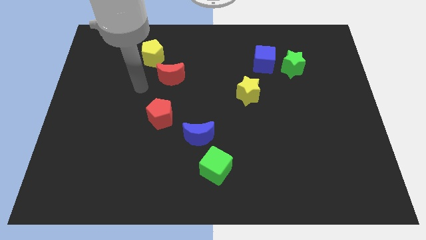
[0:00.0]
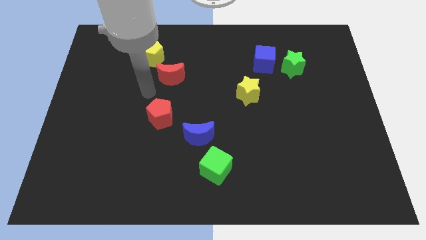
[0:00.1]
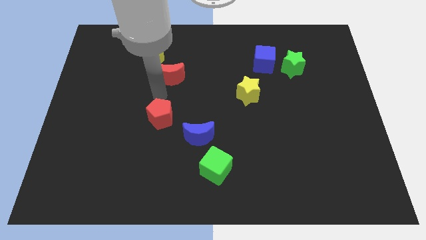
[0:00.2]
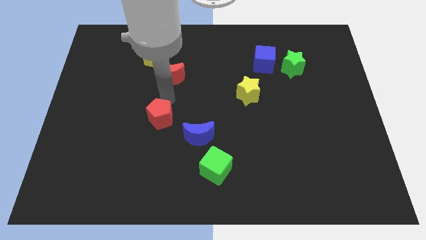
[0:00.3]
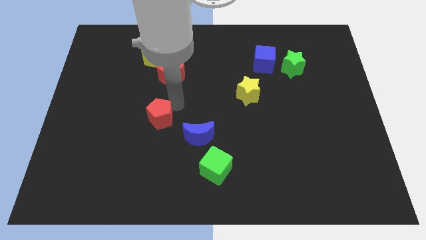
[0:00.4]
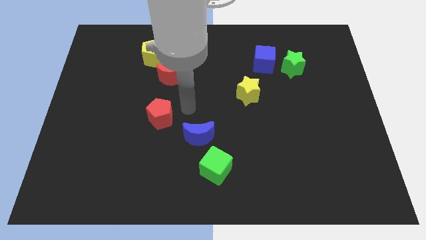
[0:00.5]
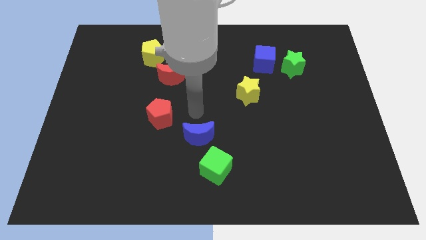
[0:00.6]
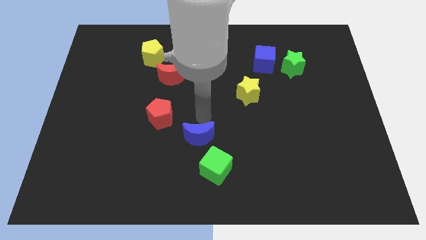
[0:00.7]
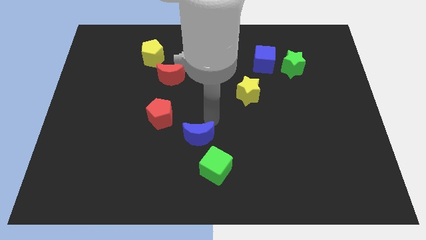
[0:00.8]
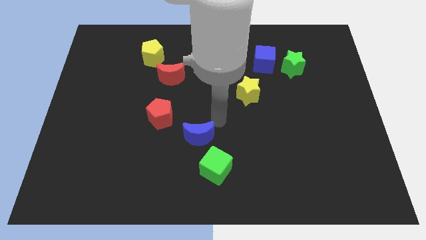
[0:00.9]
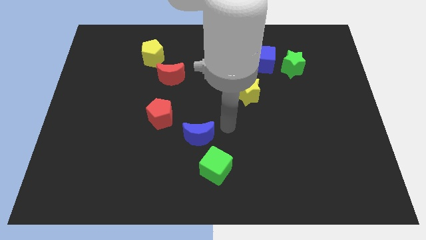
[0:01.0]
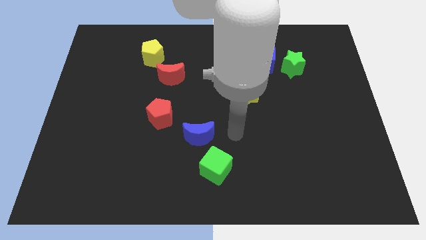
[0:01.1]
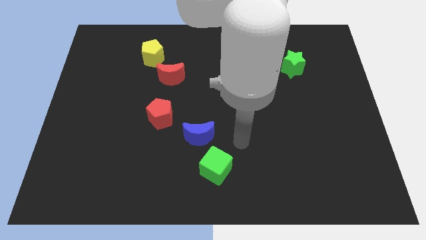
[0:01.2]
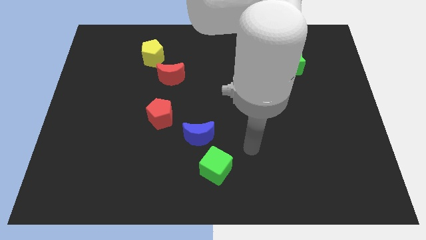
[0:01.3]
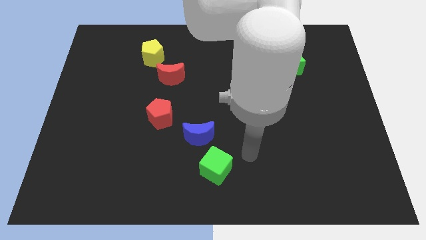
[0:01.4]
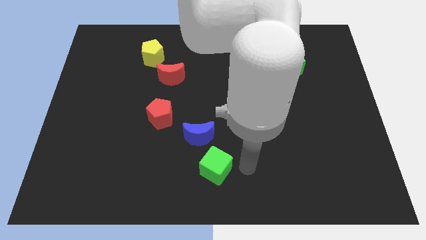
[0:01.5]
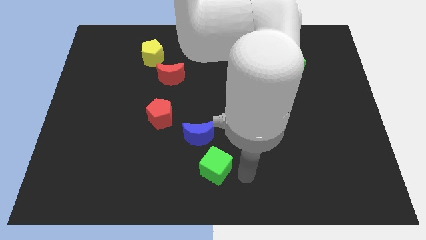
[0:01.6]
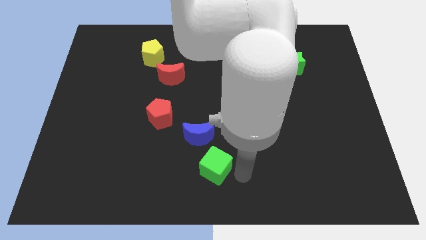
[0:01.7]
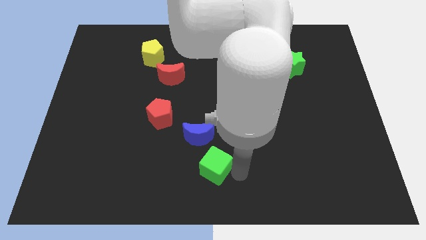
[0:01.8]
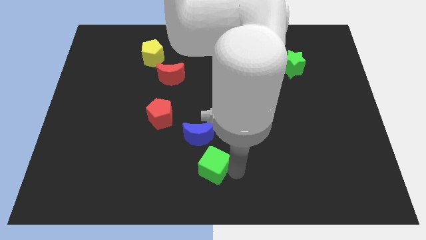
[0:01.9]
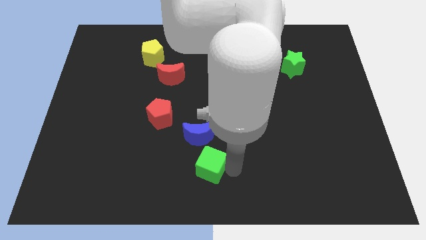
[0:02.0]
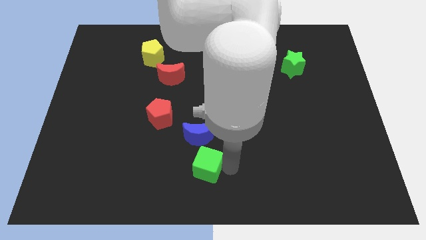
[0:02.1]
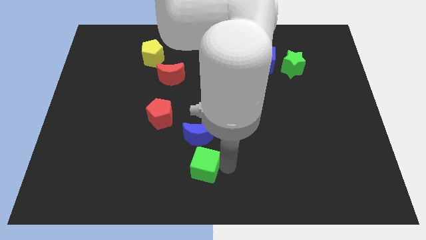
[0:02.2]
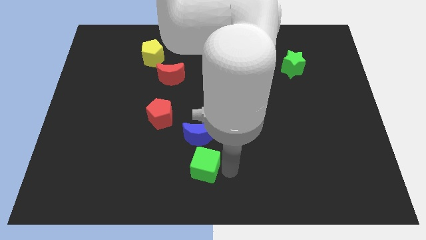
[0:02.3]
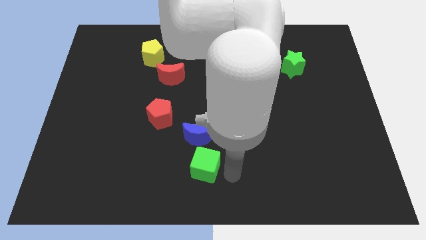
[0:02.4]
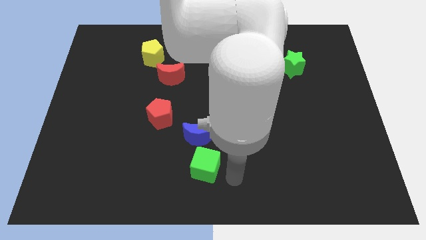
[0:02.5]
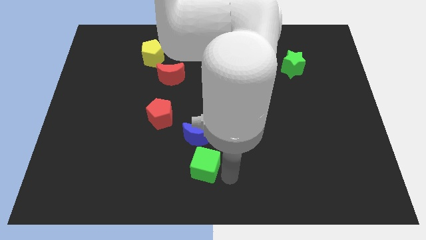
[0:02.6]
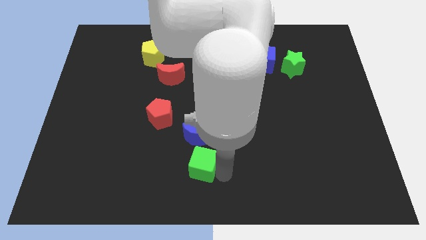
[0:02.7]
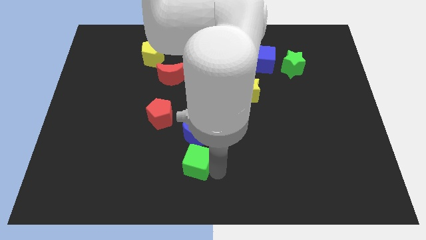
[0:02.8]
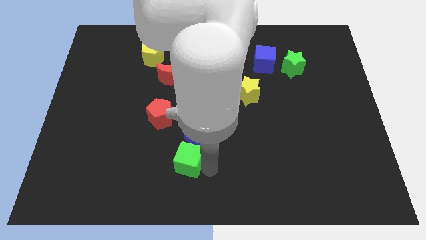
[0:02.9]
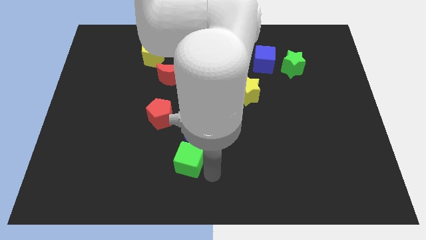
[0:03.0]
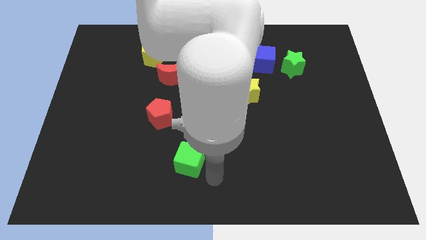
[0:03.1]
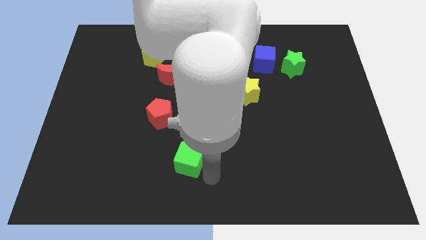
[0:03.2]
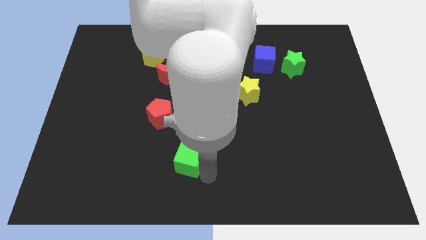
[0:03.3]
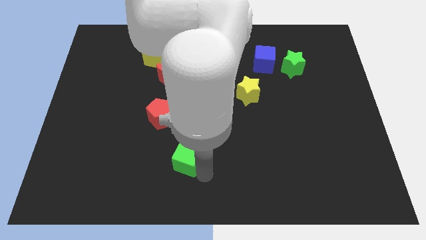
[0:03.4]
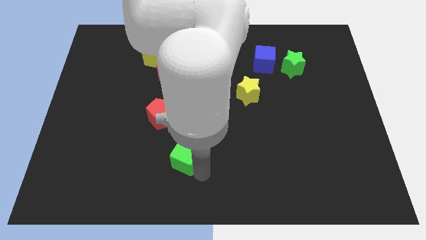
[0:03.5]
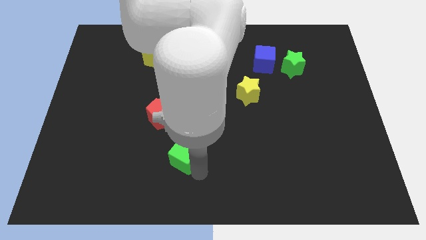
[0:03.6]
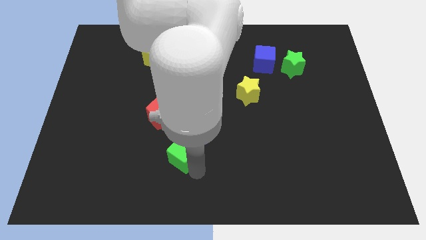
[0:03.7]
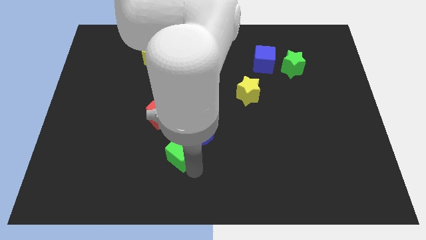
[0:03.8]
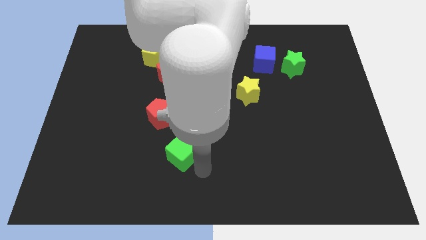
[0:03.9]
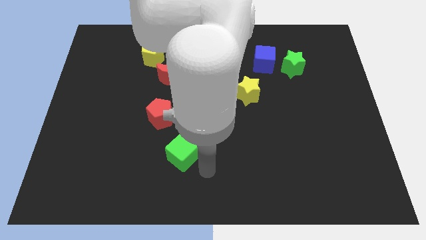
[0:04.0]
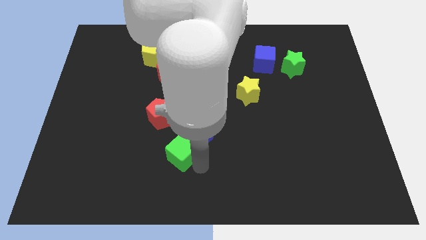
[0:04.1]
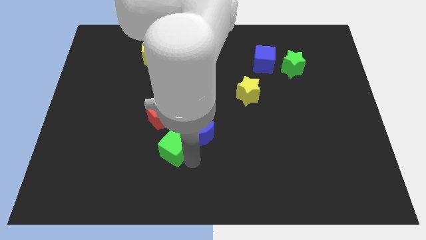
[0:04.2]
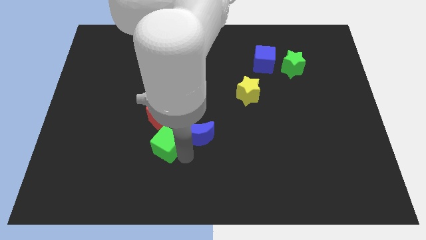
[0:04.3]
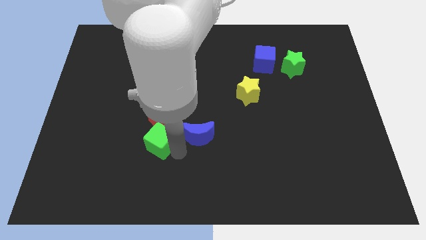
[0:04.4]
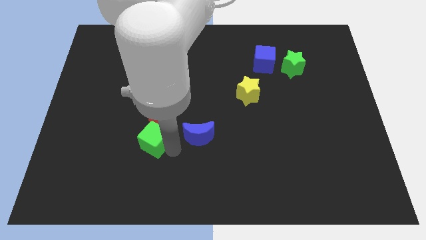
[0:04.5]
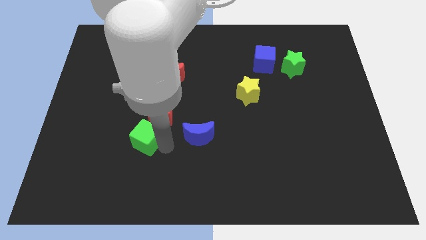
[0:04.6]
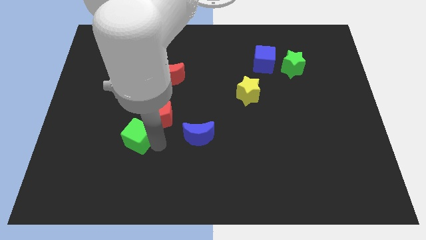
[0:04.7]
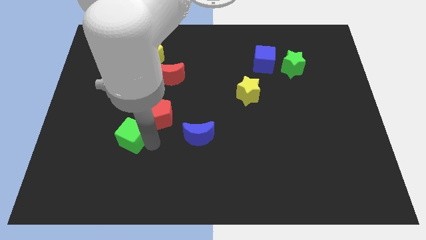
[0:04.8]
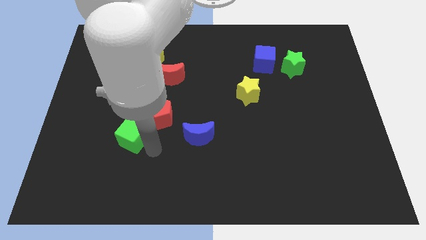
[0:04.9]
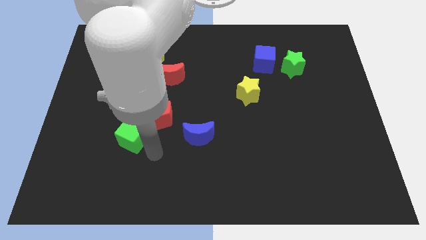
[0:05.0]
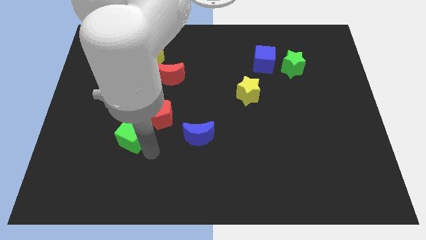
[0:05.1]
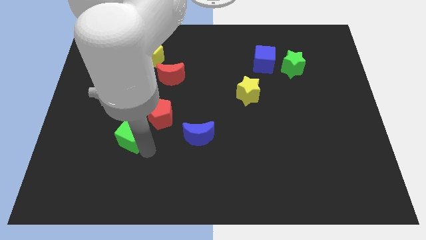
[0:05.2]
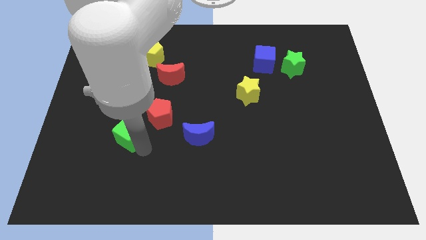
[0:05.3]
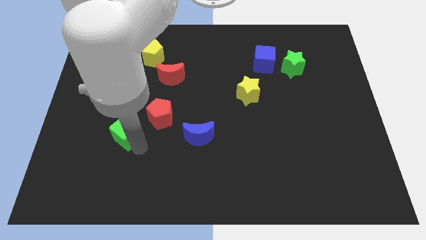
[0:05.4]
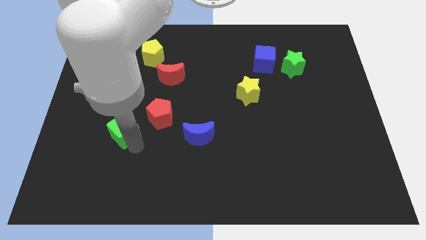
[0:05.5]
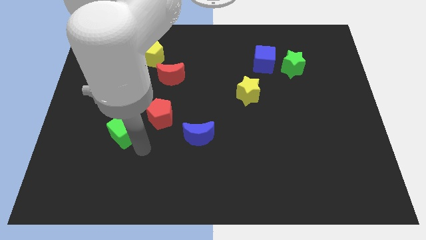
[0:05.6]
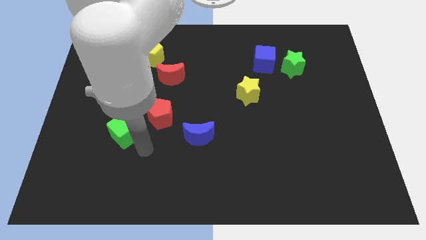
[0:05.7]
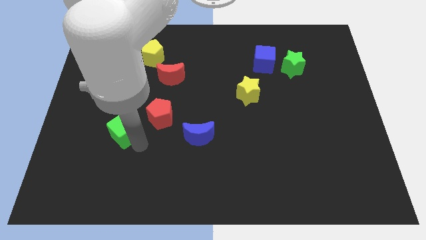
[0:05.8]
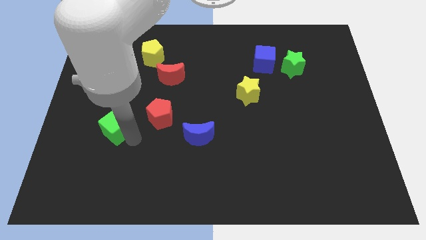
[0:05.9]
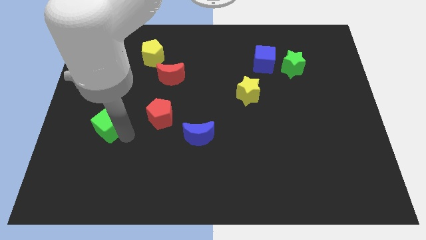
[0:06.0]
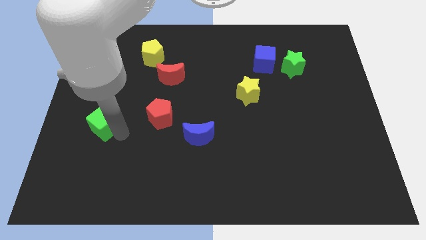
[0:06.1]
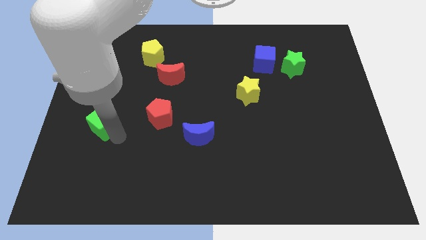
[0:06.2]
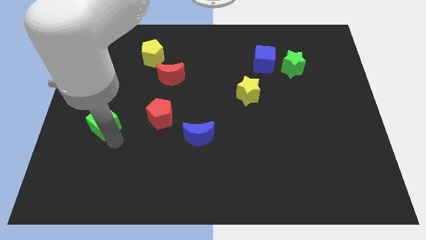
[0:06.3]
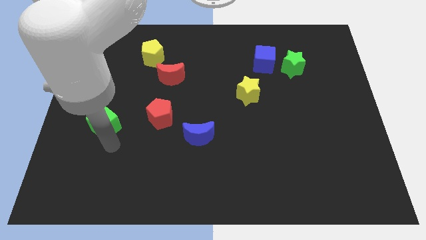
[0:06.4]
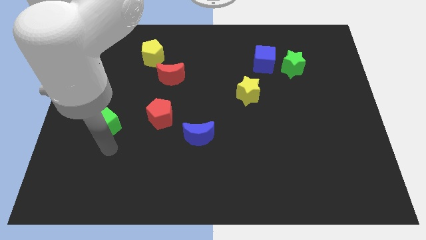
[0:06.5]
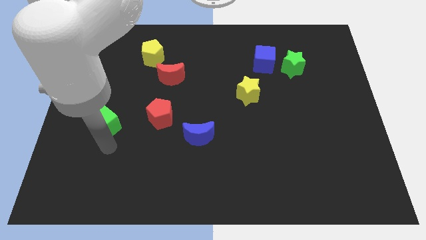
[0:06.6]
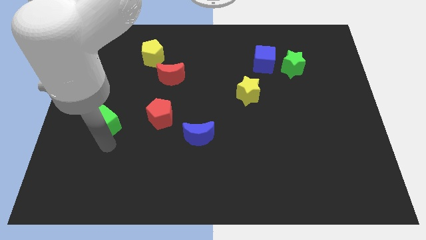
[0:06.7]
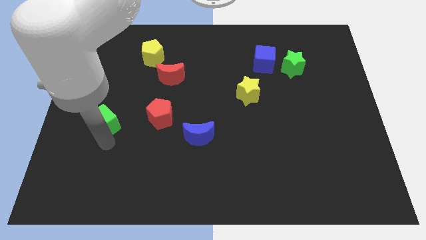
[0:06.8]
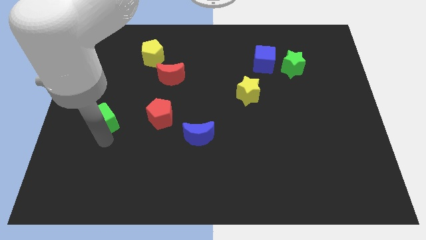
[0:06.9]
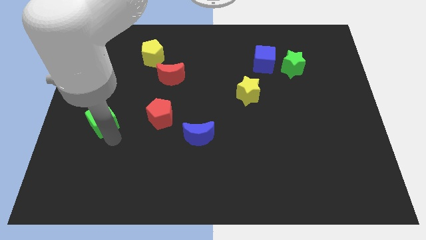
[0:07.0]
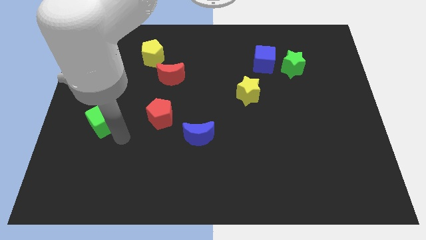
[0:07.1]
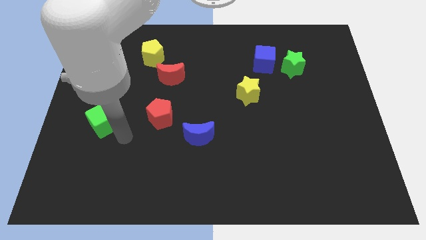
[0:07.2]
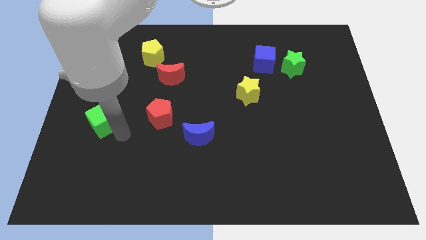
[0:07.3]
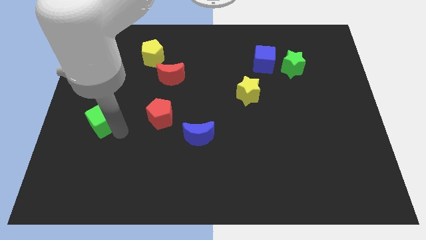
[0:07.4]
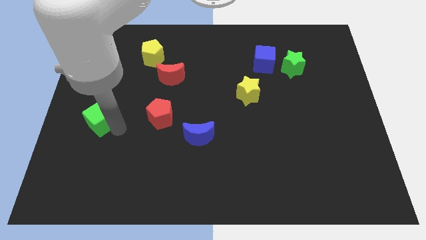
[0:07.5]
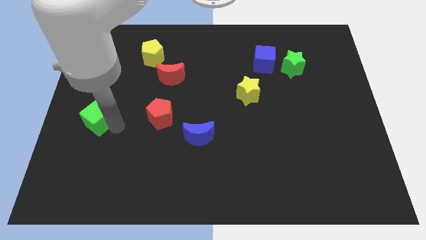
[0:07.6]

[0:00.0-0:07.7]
put the green cube to the center left
